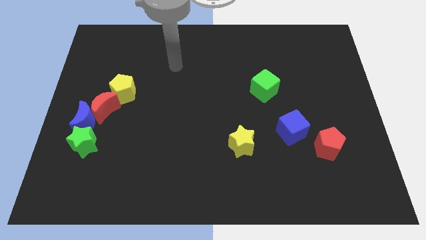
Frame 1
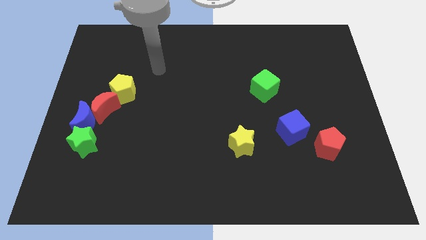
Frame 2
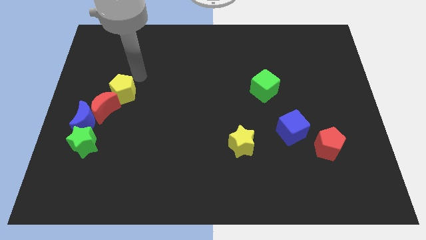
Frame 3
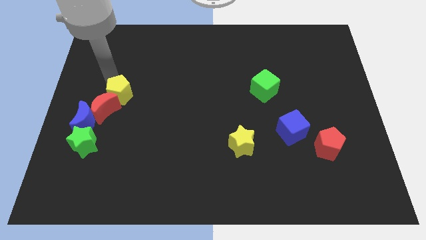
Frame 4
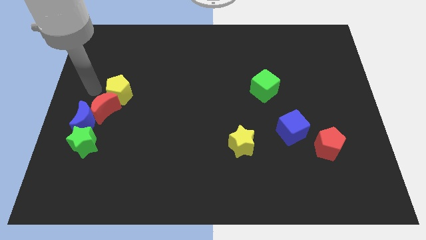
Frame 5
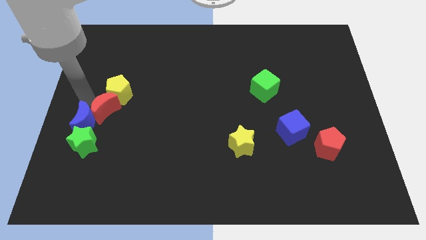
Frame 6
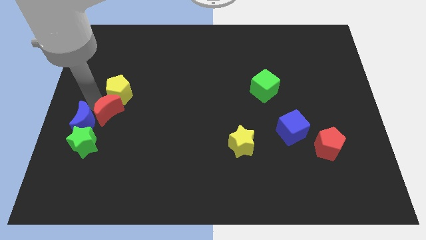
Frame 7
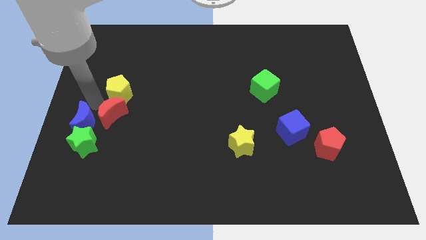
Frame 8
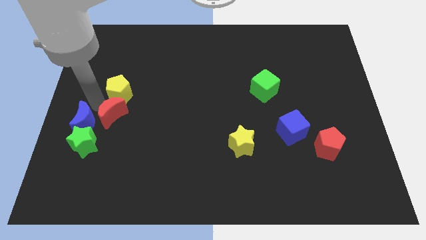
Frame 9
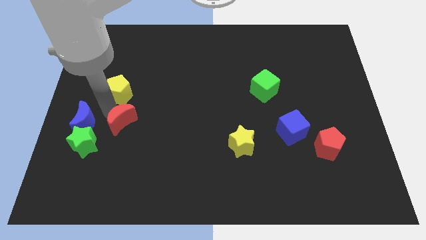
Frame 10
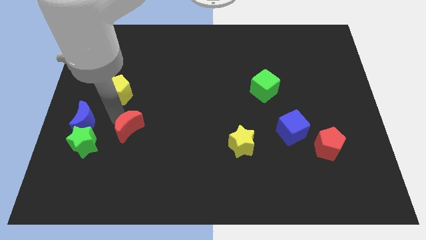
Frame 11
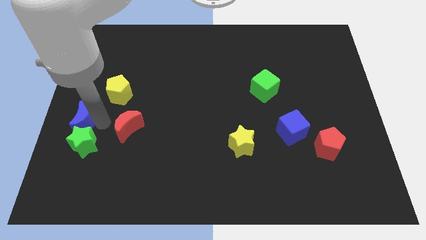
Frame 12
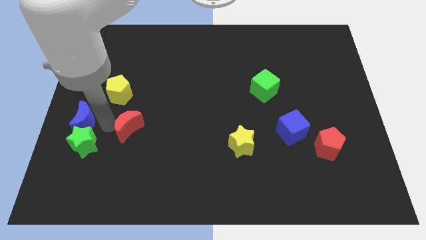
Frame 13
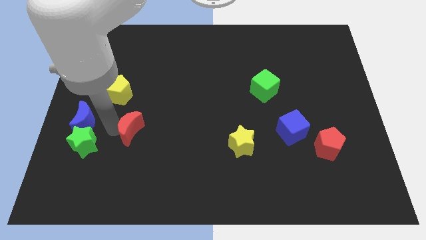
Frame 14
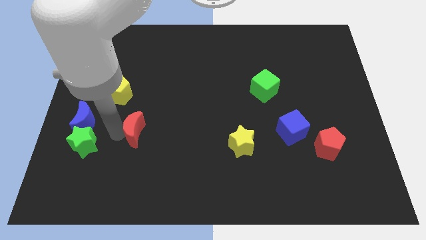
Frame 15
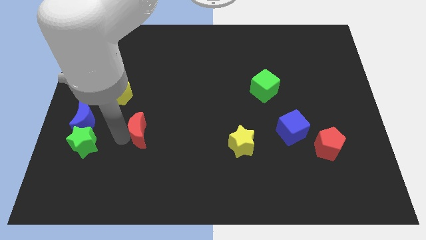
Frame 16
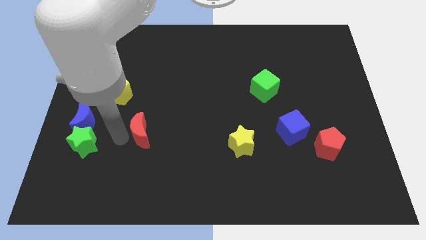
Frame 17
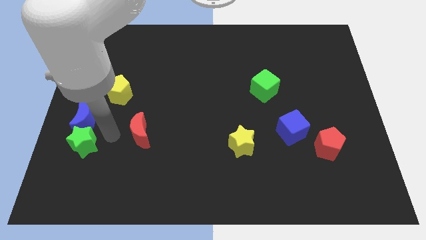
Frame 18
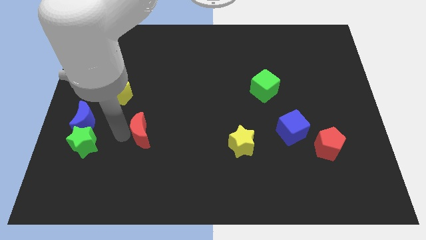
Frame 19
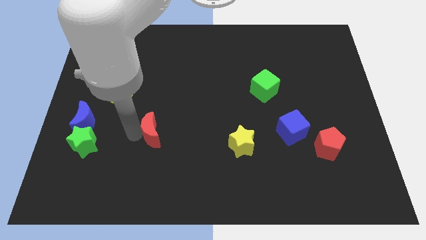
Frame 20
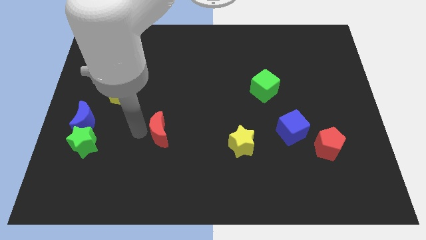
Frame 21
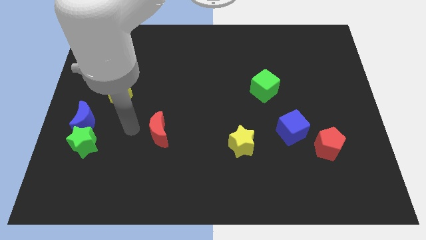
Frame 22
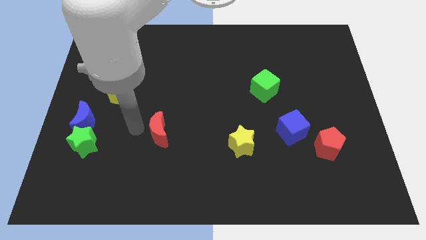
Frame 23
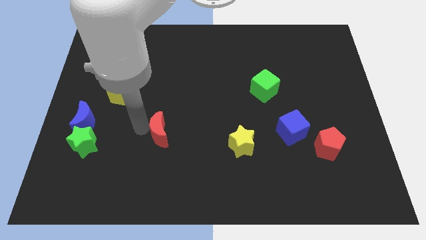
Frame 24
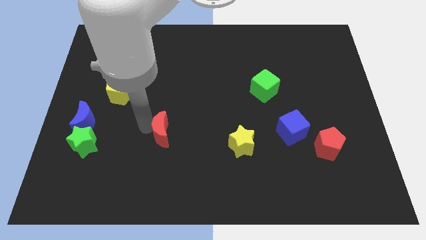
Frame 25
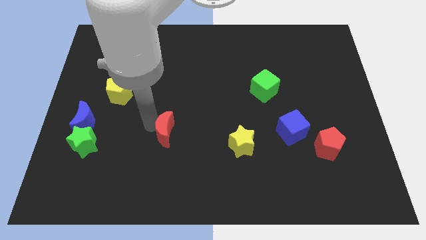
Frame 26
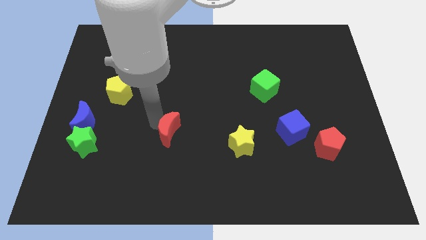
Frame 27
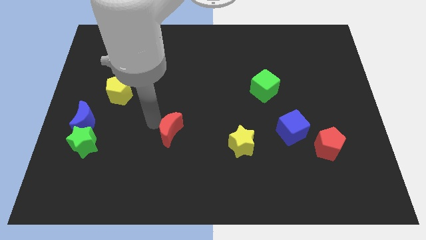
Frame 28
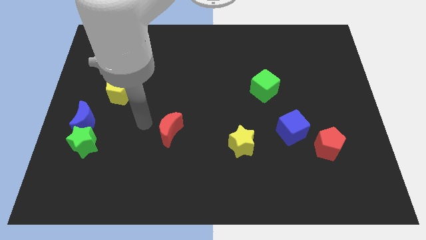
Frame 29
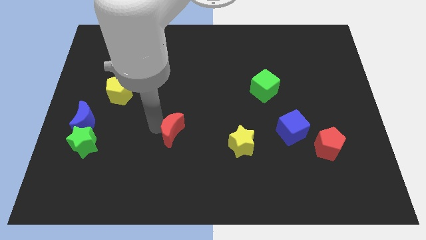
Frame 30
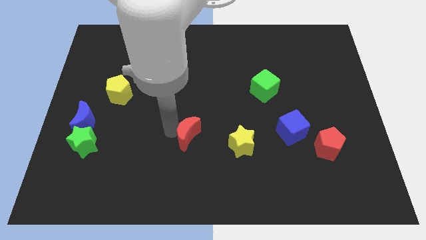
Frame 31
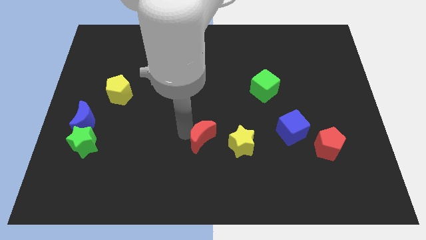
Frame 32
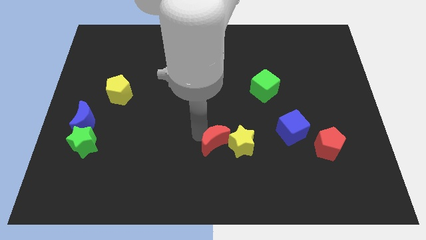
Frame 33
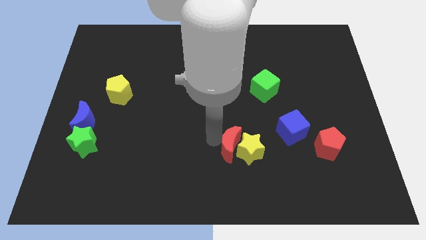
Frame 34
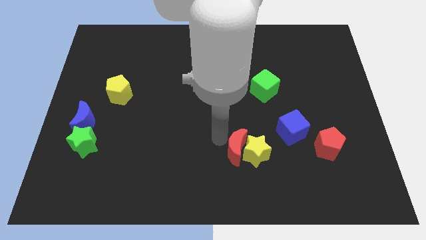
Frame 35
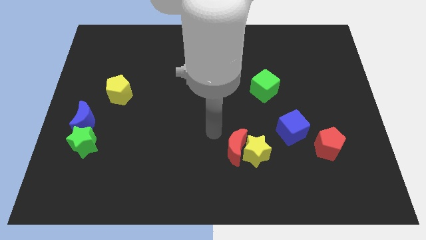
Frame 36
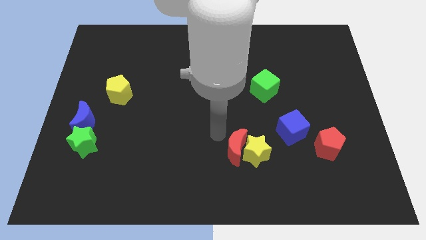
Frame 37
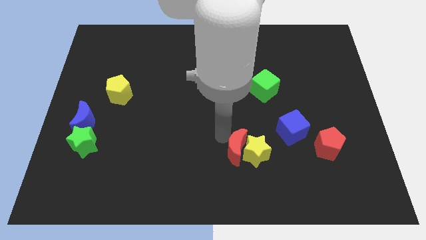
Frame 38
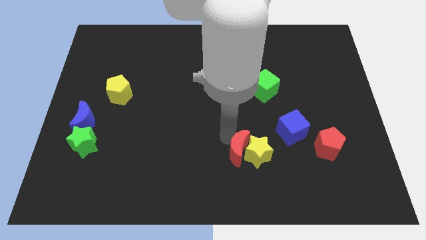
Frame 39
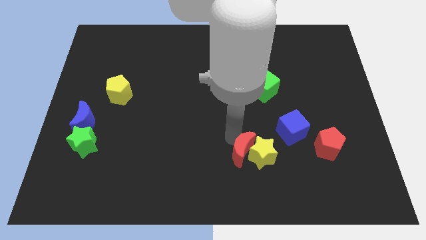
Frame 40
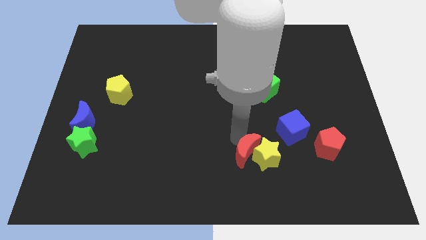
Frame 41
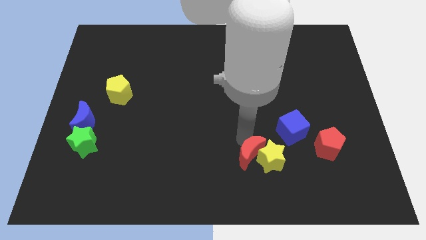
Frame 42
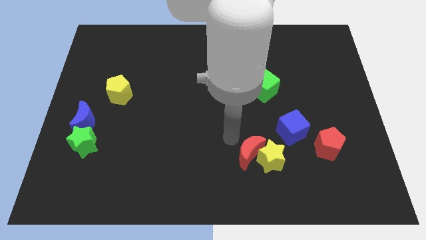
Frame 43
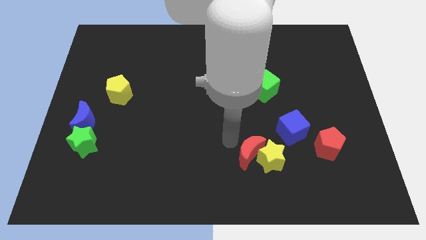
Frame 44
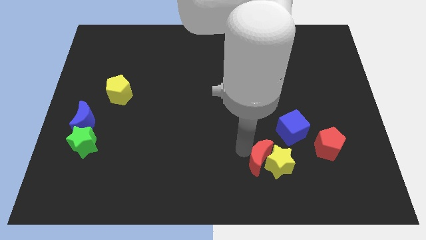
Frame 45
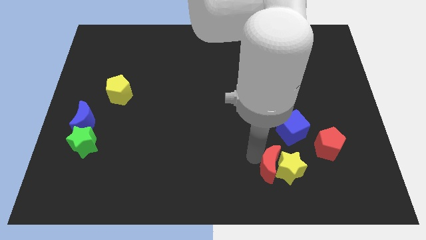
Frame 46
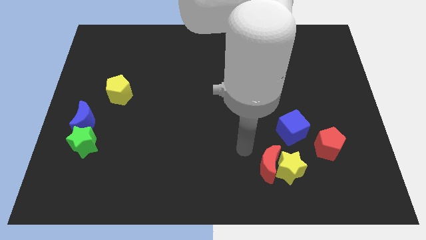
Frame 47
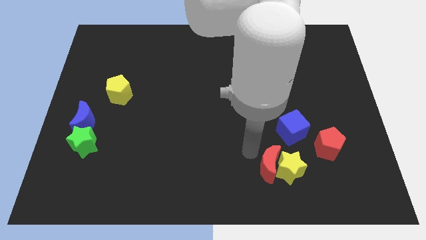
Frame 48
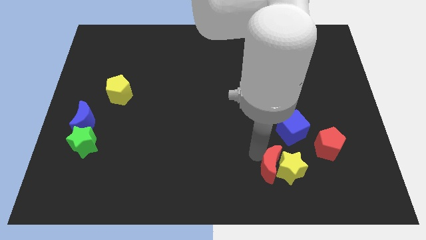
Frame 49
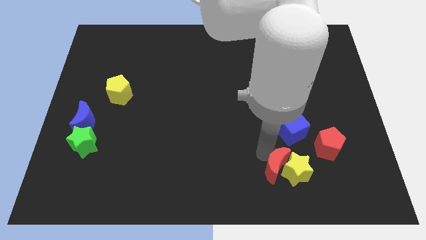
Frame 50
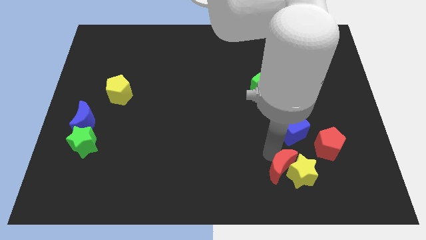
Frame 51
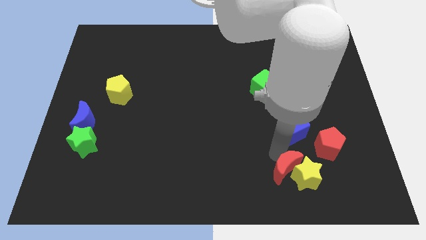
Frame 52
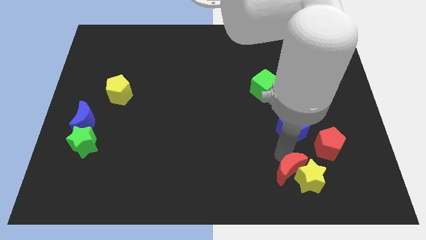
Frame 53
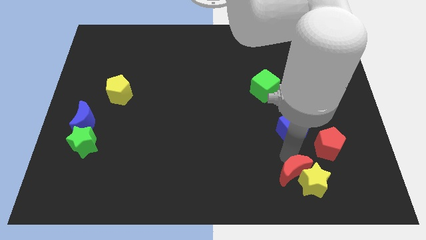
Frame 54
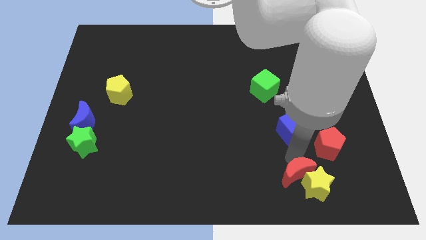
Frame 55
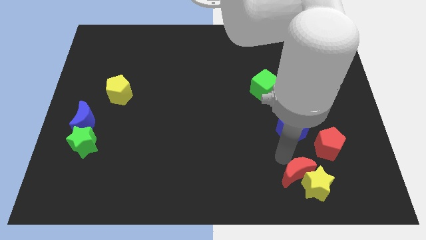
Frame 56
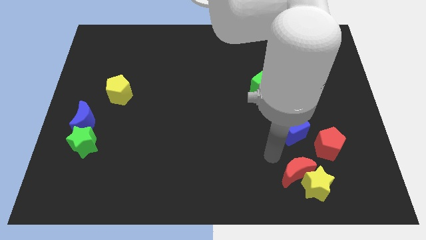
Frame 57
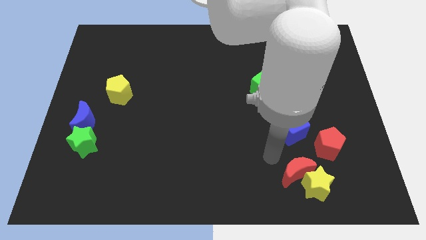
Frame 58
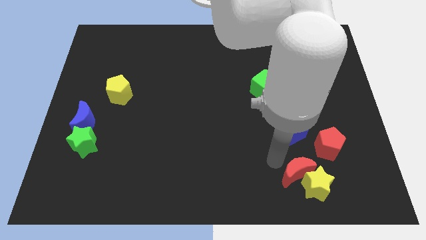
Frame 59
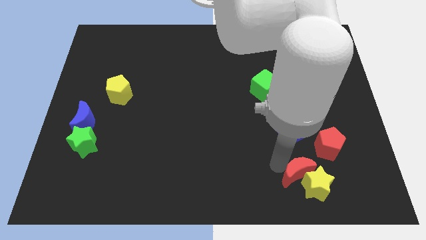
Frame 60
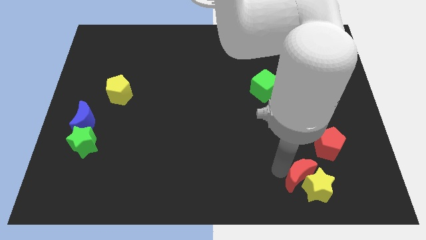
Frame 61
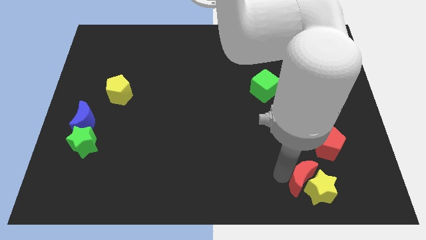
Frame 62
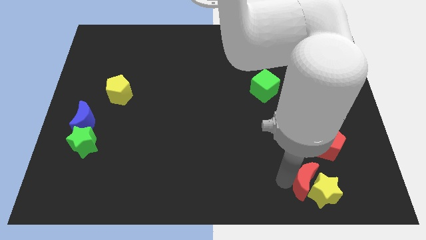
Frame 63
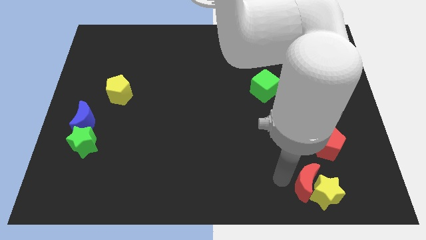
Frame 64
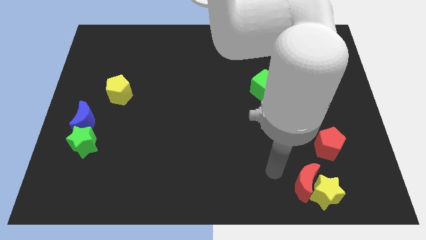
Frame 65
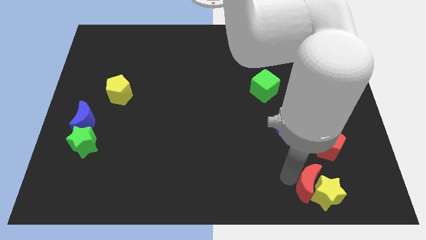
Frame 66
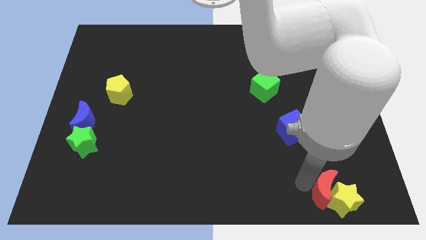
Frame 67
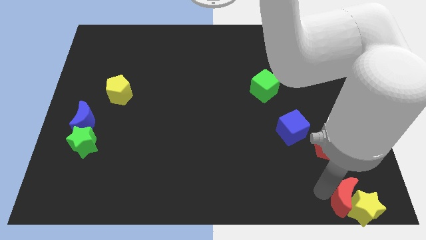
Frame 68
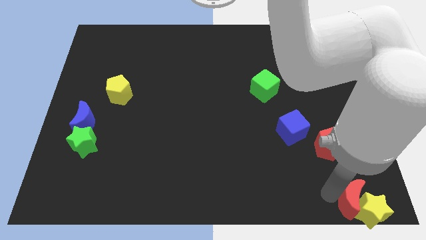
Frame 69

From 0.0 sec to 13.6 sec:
put the red moon to the bottom right of the board

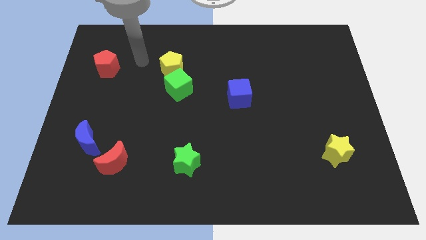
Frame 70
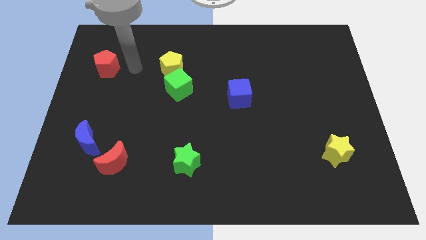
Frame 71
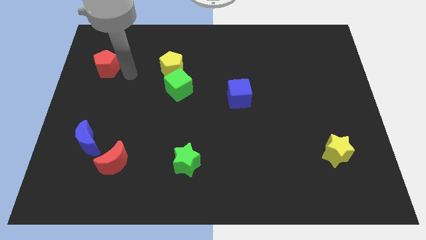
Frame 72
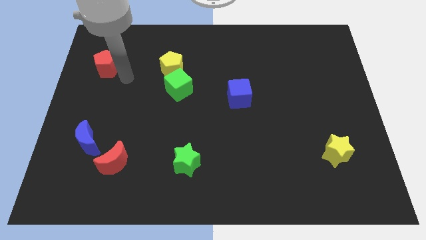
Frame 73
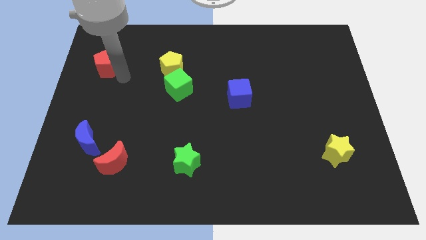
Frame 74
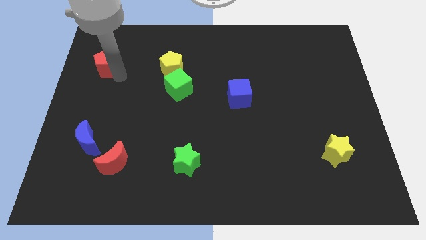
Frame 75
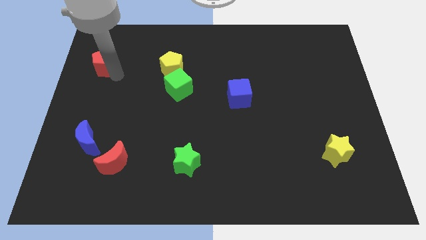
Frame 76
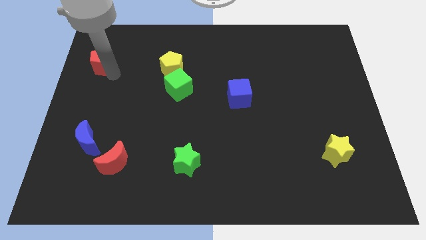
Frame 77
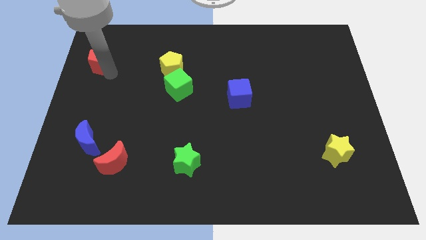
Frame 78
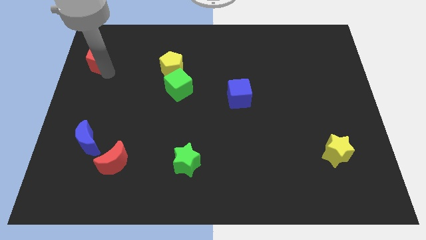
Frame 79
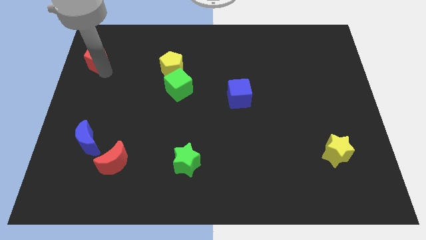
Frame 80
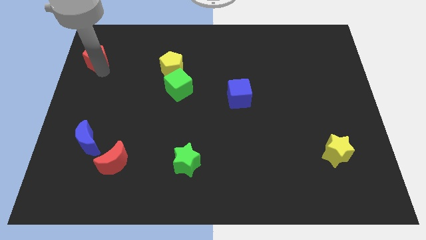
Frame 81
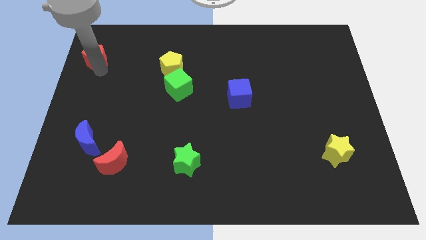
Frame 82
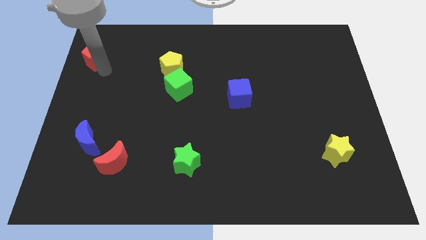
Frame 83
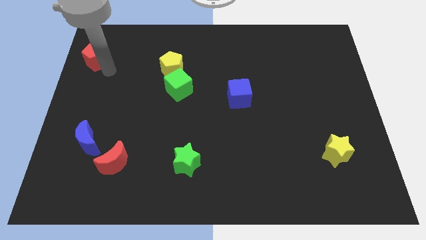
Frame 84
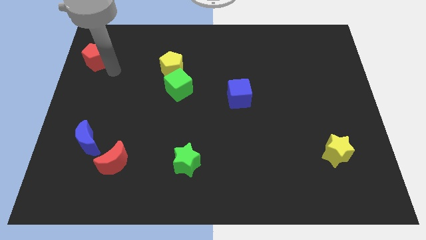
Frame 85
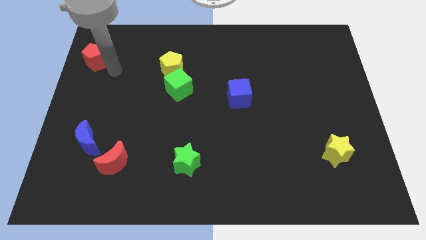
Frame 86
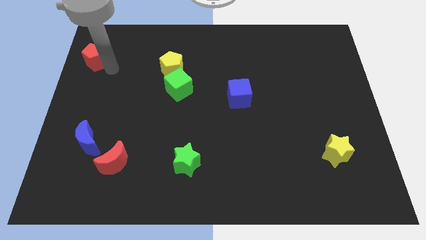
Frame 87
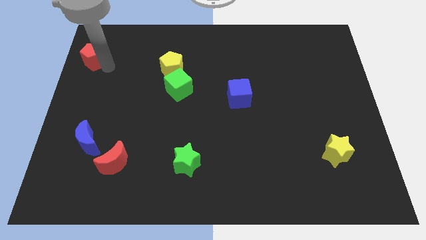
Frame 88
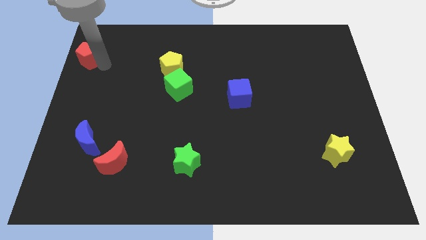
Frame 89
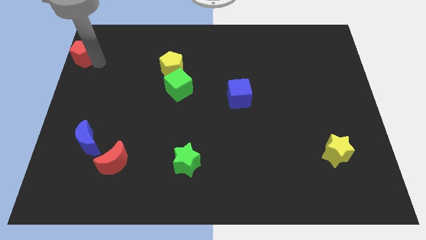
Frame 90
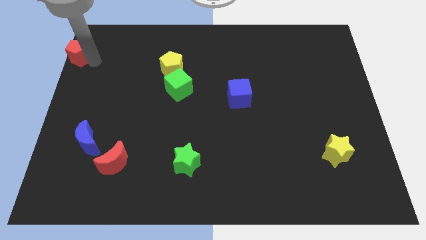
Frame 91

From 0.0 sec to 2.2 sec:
slide the red pentagon to the upper left corner
